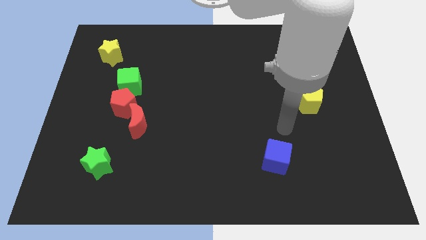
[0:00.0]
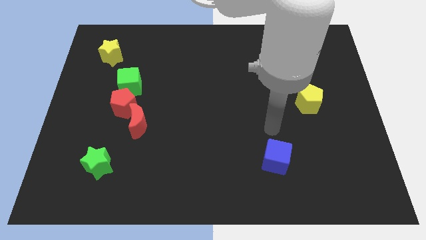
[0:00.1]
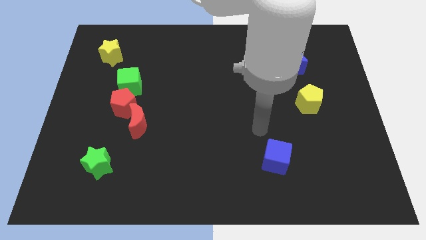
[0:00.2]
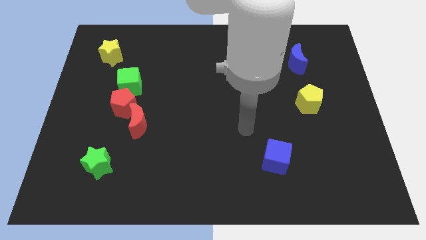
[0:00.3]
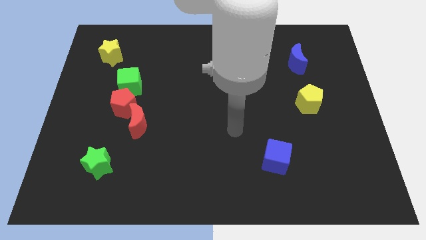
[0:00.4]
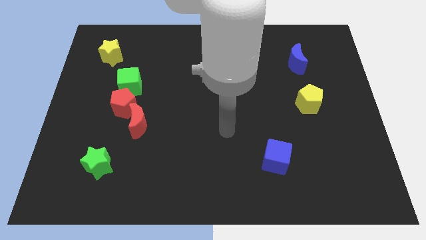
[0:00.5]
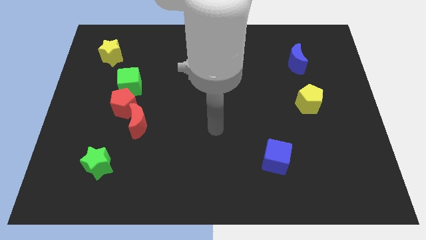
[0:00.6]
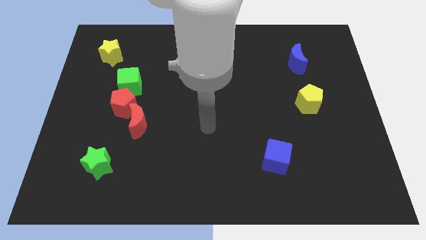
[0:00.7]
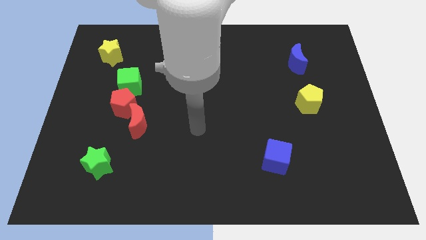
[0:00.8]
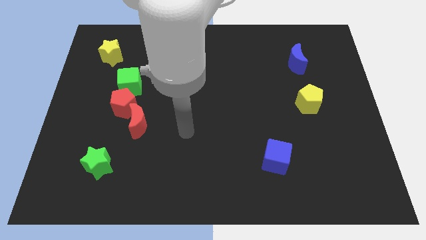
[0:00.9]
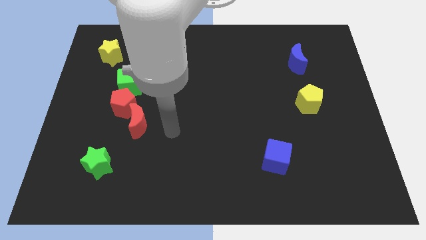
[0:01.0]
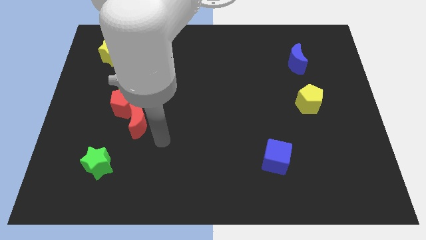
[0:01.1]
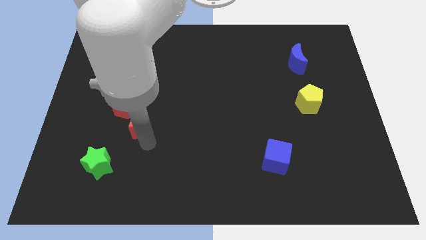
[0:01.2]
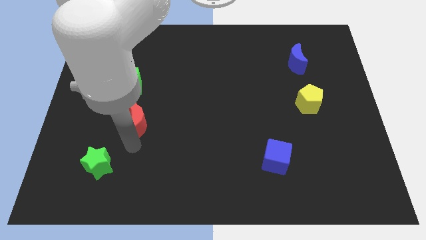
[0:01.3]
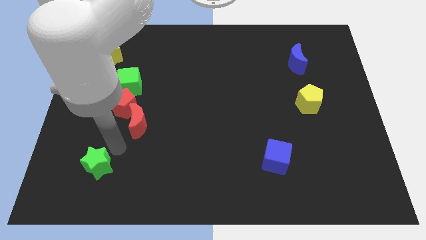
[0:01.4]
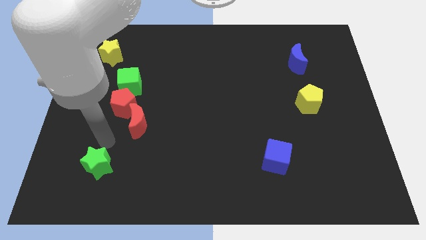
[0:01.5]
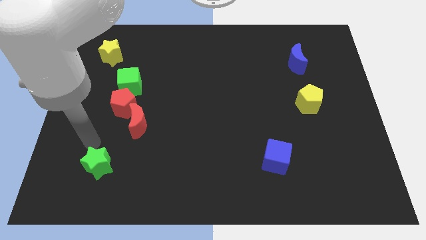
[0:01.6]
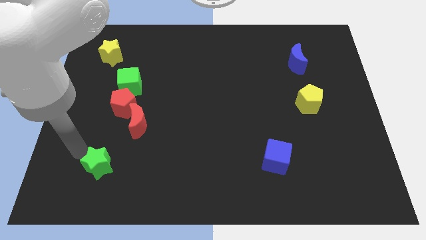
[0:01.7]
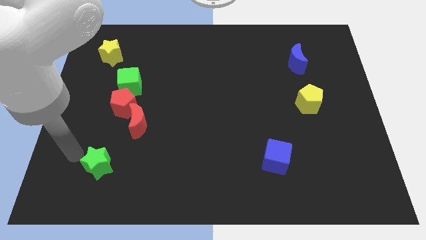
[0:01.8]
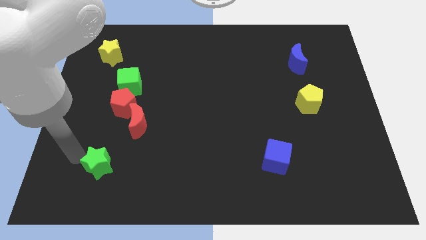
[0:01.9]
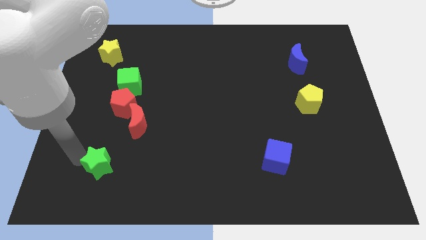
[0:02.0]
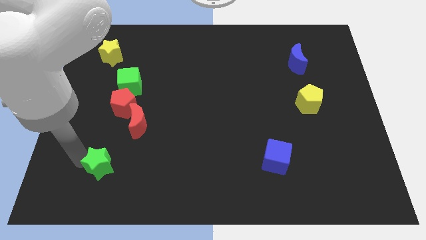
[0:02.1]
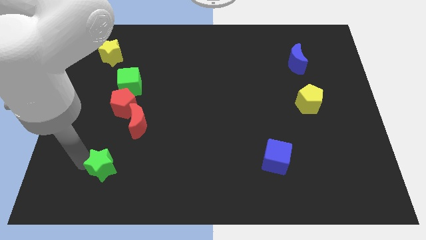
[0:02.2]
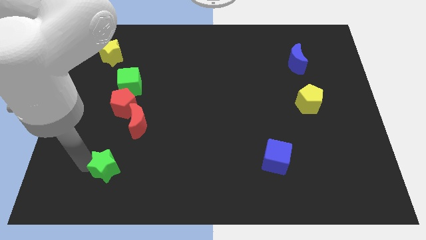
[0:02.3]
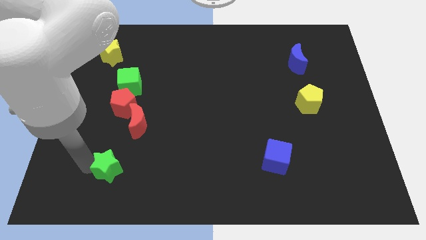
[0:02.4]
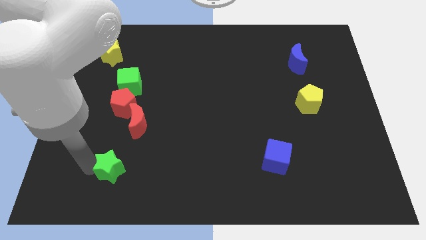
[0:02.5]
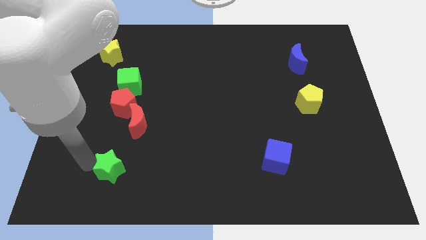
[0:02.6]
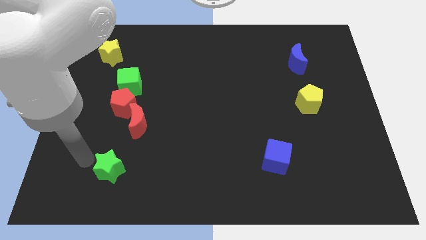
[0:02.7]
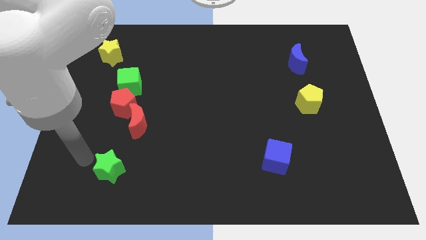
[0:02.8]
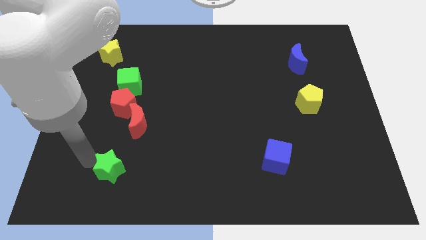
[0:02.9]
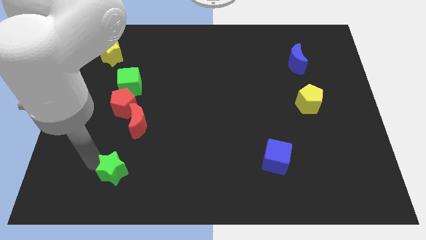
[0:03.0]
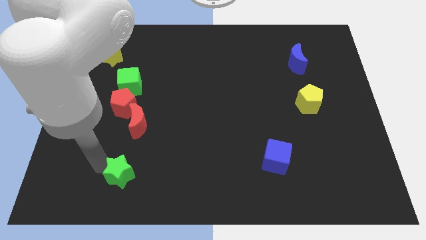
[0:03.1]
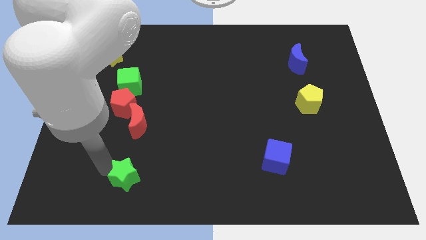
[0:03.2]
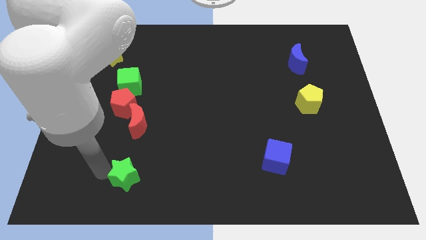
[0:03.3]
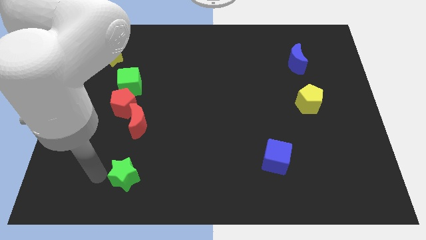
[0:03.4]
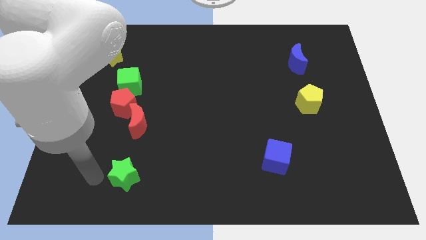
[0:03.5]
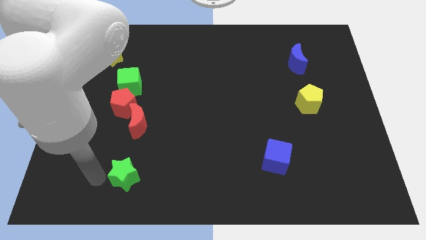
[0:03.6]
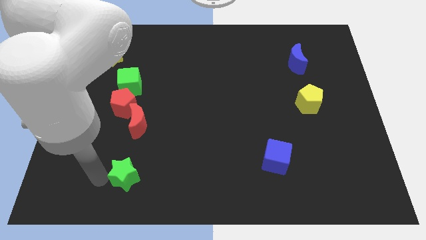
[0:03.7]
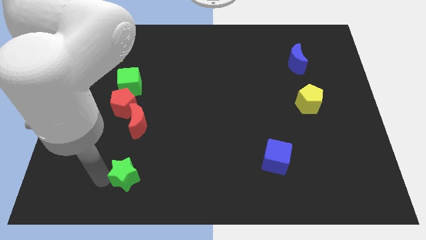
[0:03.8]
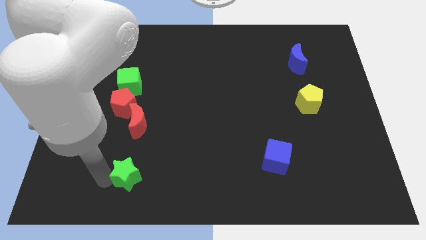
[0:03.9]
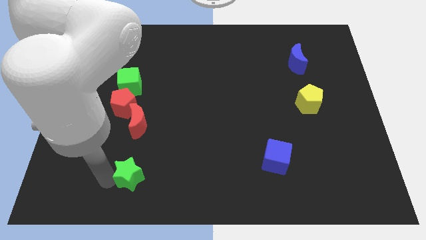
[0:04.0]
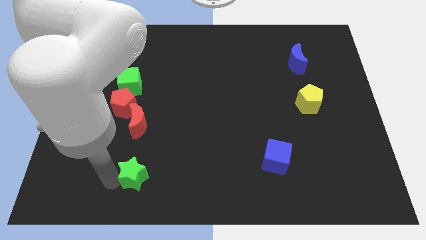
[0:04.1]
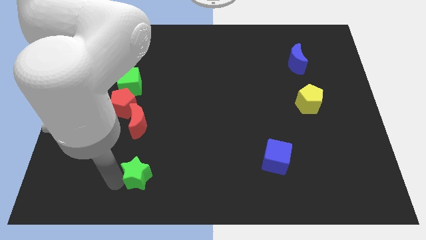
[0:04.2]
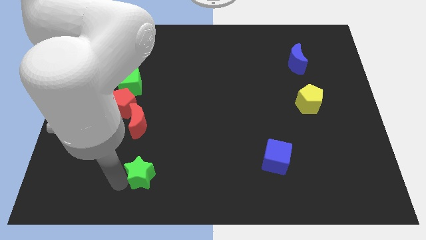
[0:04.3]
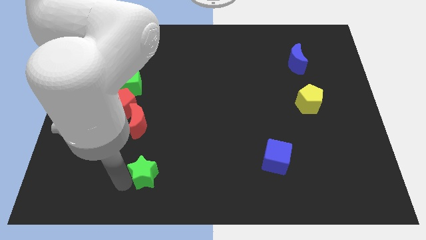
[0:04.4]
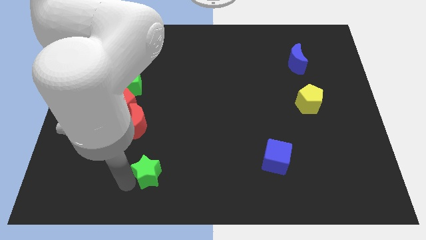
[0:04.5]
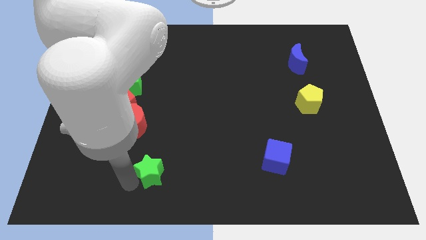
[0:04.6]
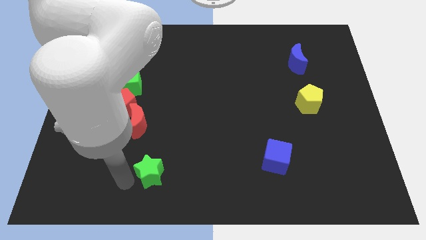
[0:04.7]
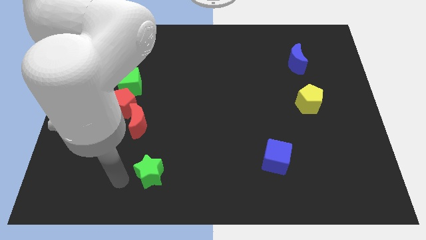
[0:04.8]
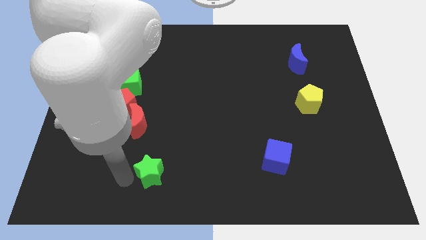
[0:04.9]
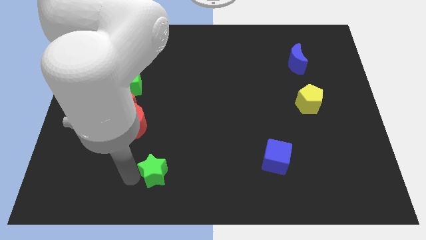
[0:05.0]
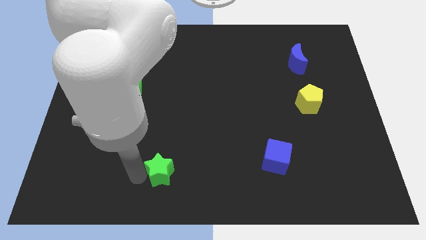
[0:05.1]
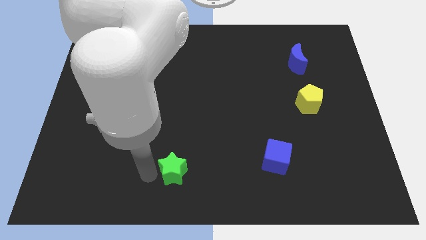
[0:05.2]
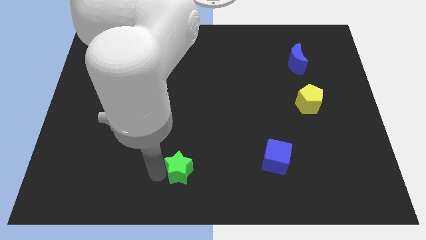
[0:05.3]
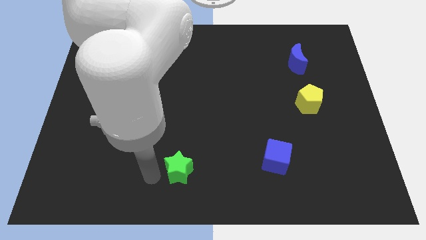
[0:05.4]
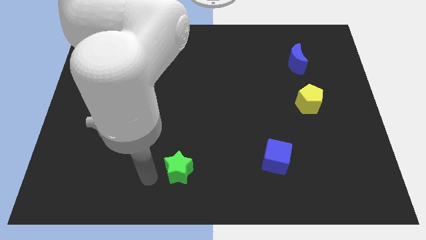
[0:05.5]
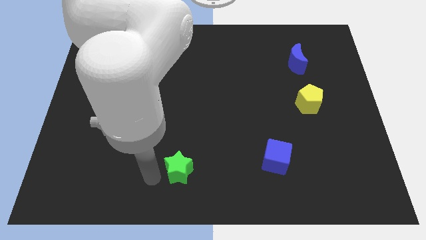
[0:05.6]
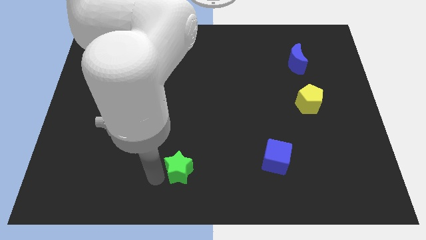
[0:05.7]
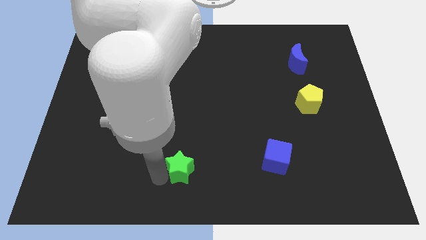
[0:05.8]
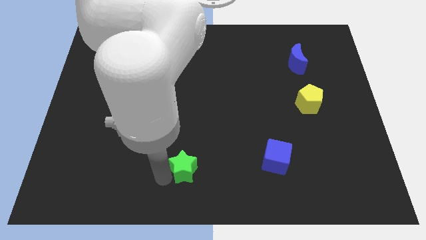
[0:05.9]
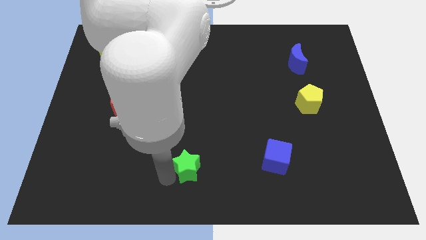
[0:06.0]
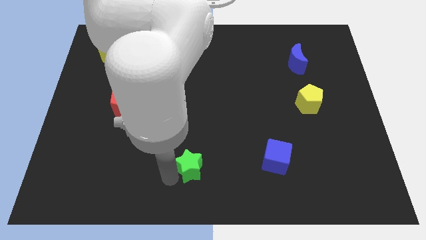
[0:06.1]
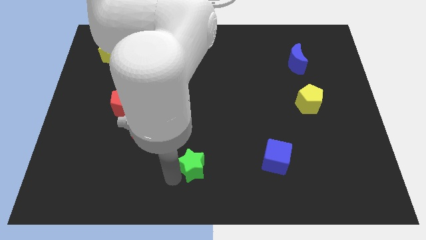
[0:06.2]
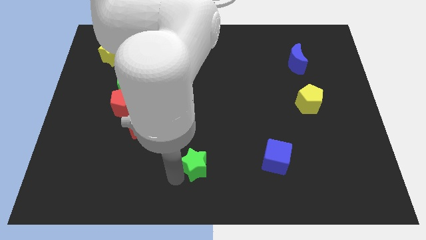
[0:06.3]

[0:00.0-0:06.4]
move the green star to the right

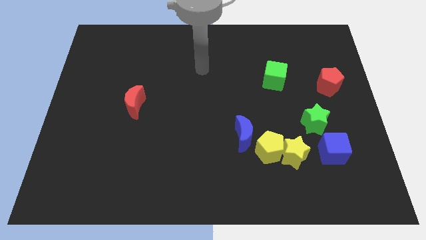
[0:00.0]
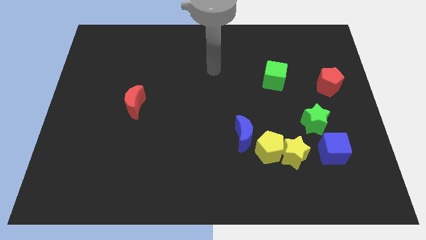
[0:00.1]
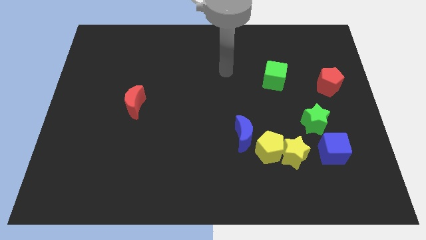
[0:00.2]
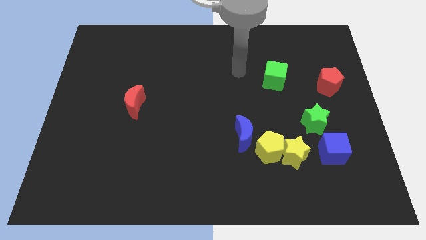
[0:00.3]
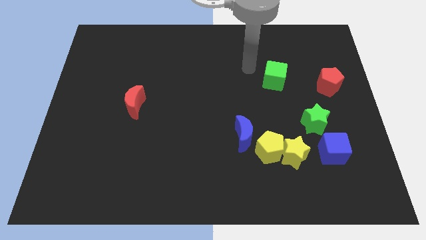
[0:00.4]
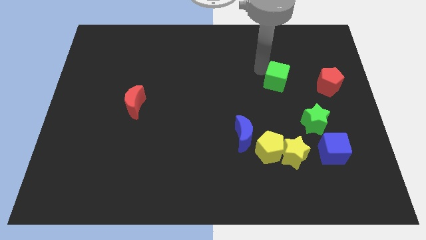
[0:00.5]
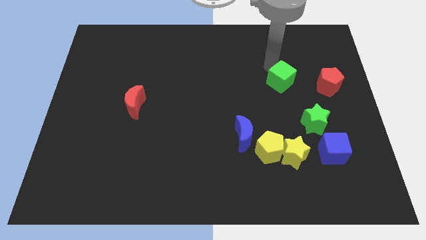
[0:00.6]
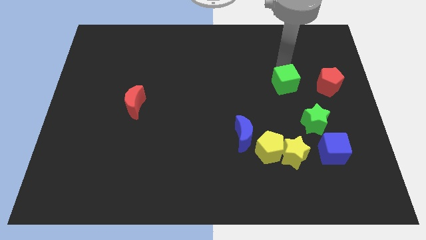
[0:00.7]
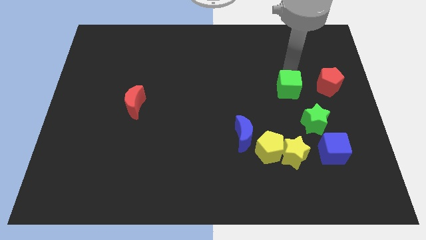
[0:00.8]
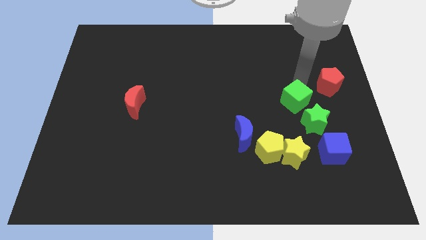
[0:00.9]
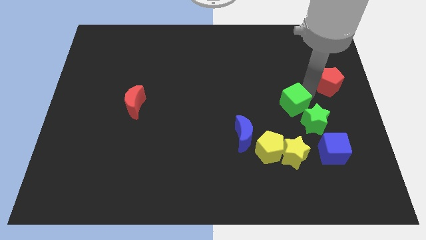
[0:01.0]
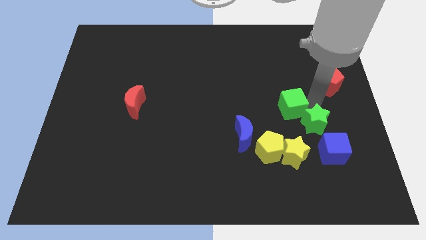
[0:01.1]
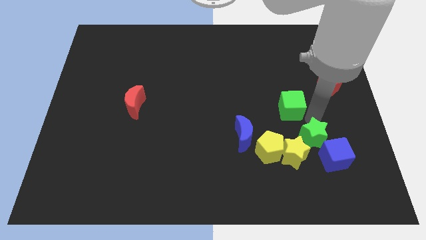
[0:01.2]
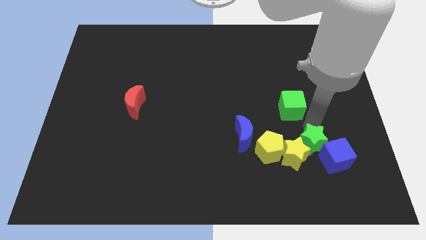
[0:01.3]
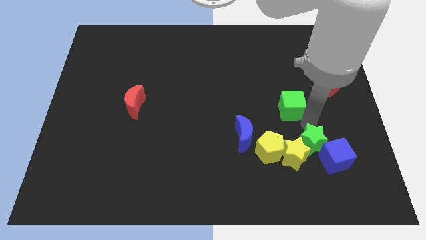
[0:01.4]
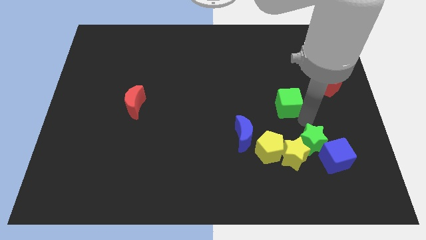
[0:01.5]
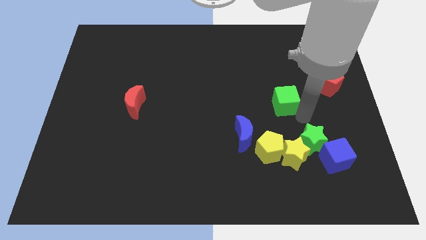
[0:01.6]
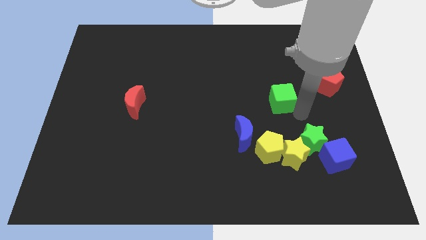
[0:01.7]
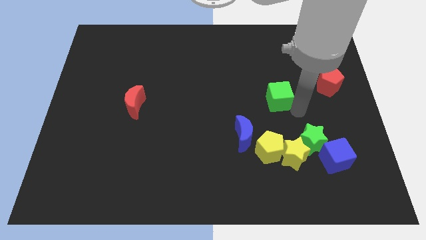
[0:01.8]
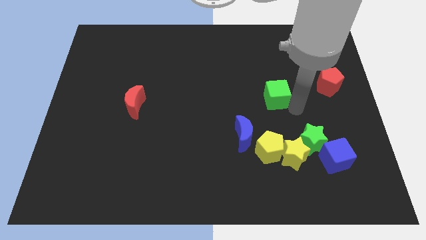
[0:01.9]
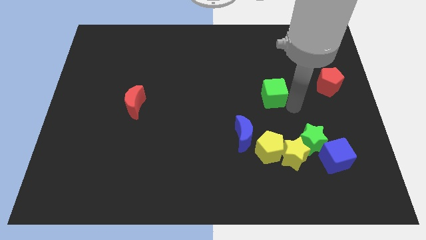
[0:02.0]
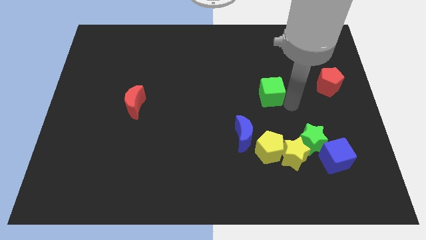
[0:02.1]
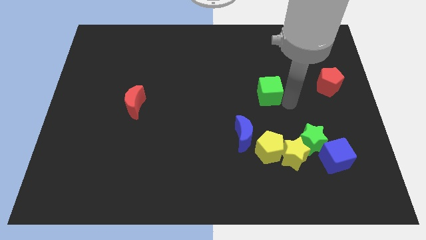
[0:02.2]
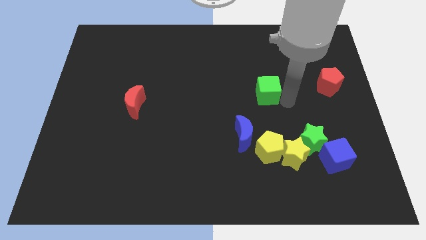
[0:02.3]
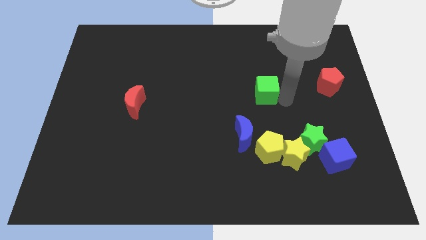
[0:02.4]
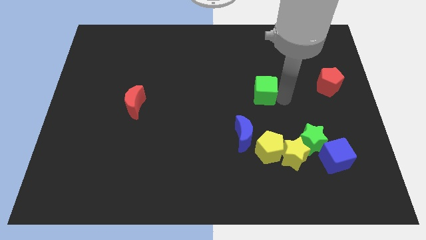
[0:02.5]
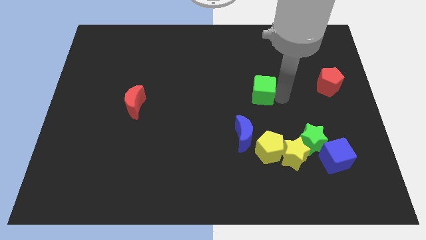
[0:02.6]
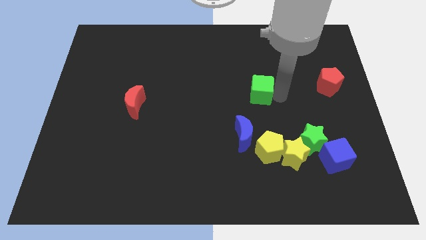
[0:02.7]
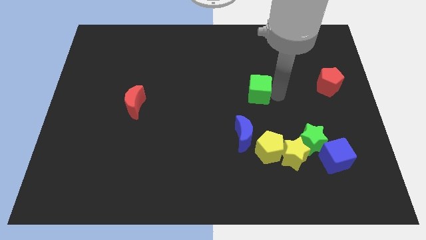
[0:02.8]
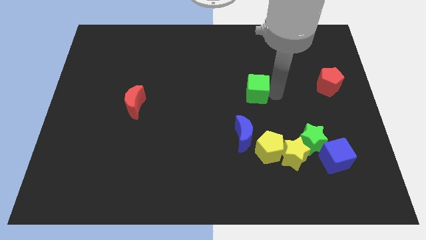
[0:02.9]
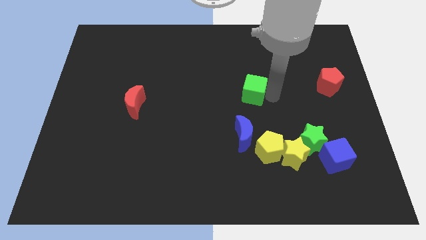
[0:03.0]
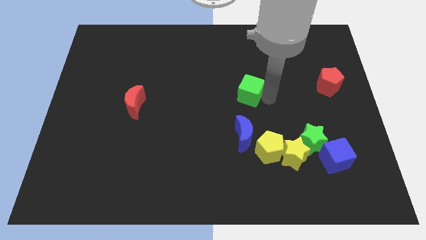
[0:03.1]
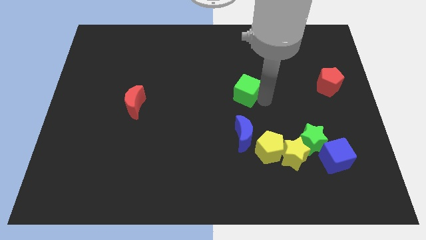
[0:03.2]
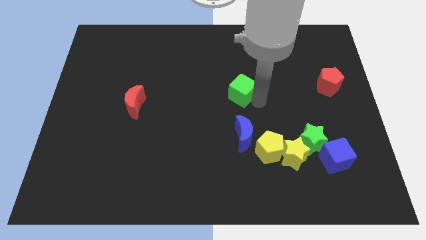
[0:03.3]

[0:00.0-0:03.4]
slightly slide the green cube to the left
